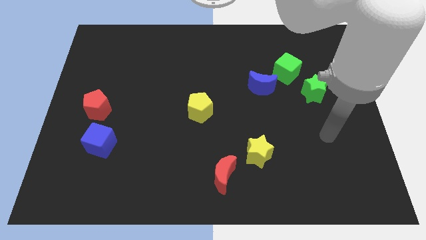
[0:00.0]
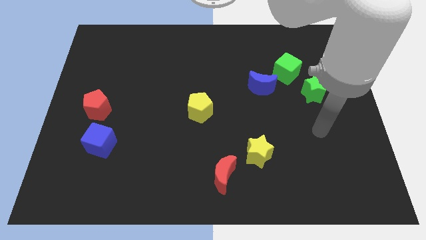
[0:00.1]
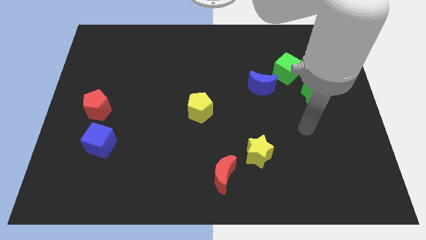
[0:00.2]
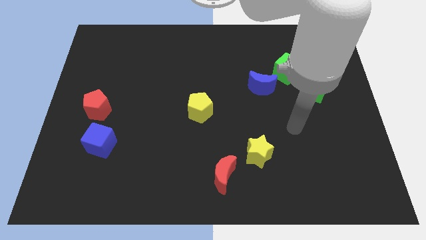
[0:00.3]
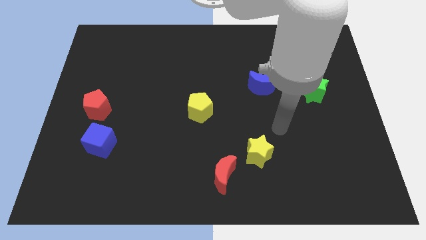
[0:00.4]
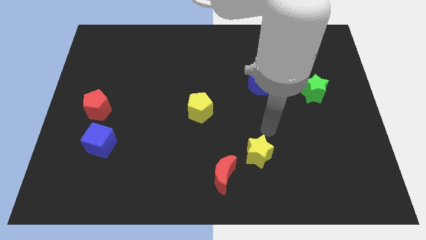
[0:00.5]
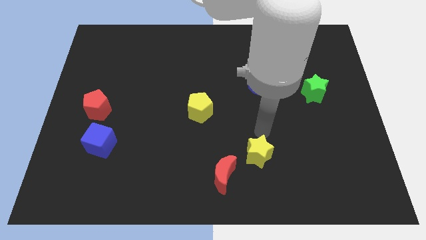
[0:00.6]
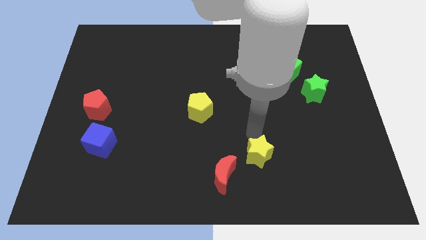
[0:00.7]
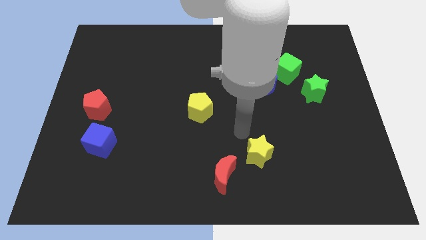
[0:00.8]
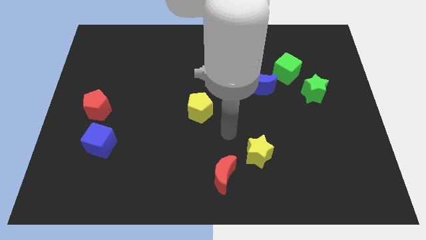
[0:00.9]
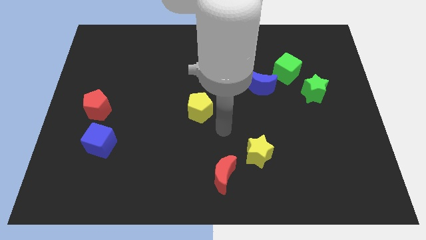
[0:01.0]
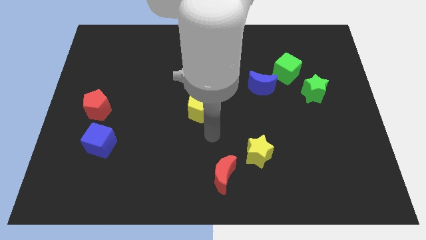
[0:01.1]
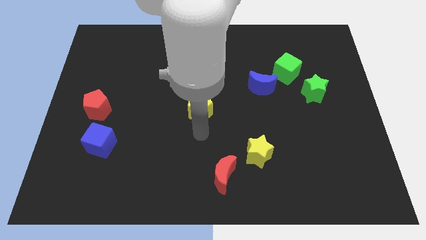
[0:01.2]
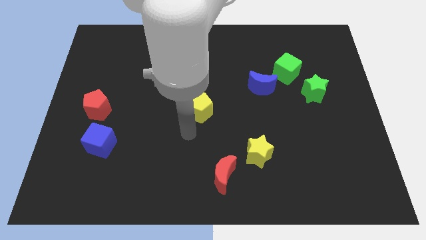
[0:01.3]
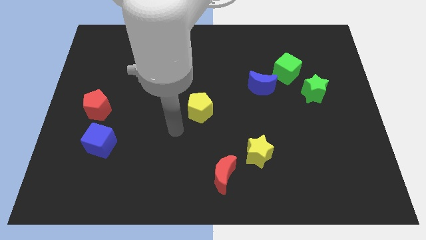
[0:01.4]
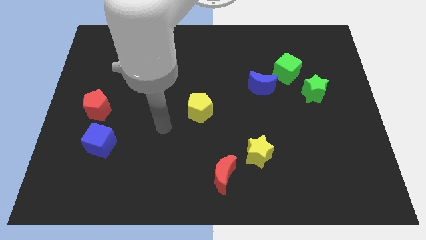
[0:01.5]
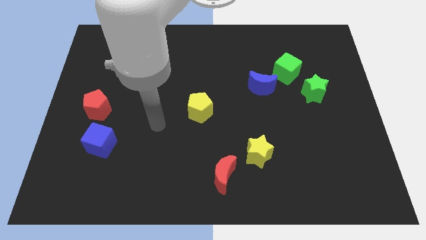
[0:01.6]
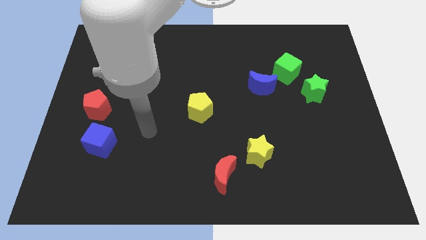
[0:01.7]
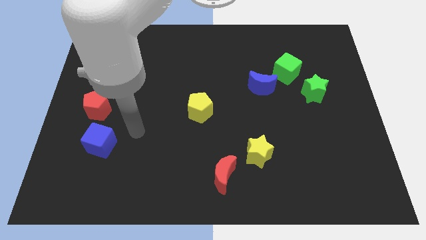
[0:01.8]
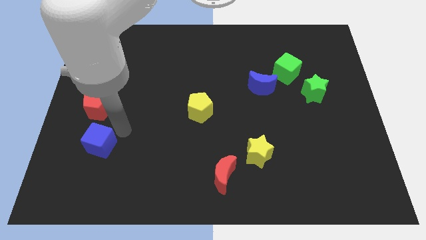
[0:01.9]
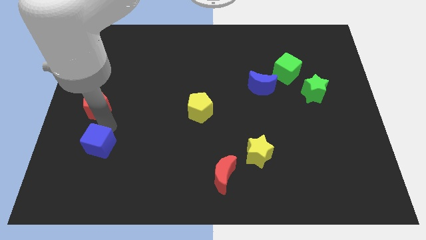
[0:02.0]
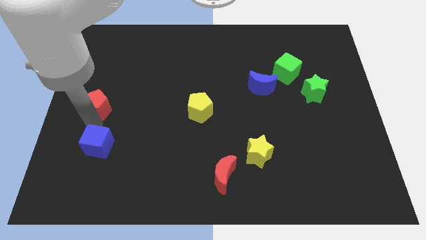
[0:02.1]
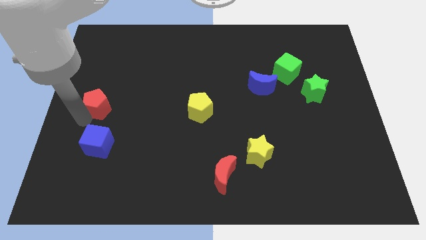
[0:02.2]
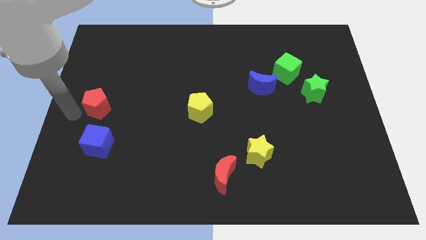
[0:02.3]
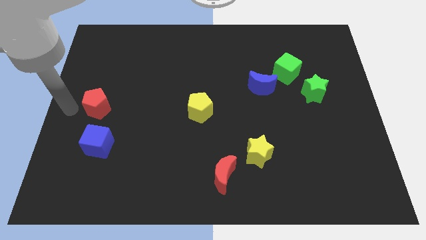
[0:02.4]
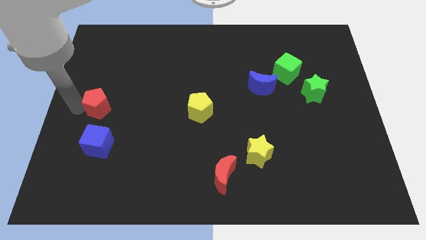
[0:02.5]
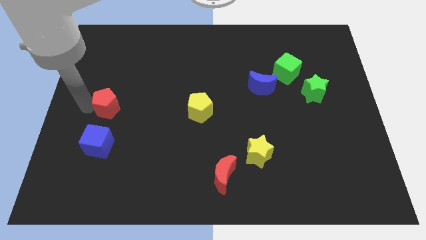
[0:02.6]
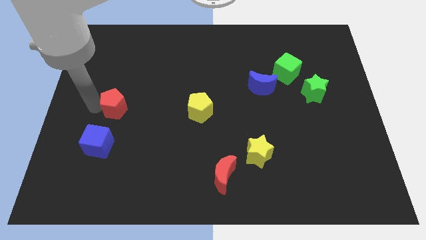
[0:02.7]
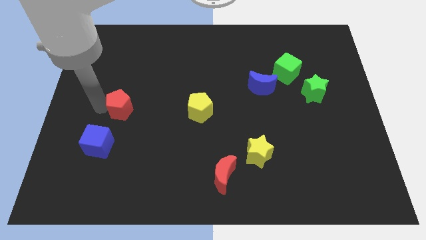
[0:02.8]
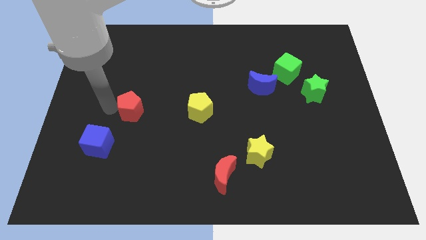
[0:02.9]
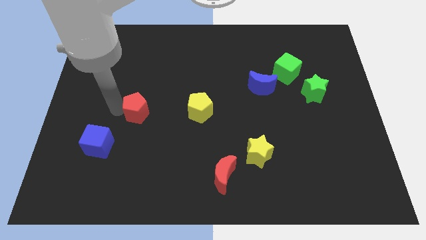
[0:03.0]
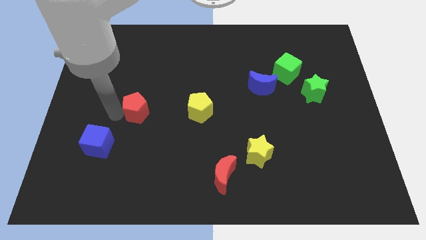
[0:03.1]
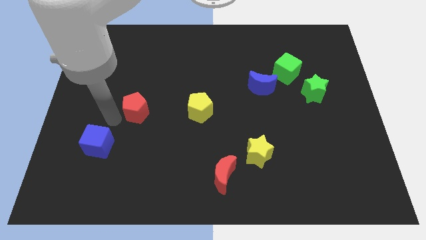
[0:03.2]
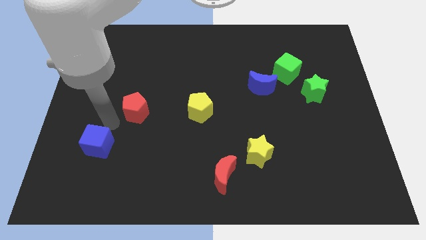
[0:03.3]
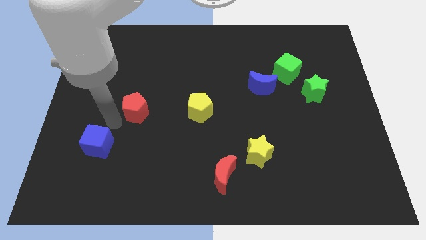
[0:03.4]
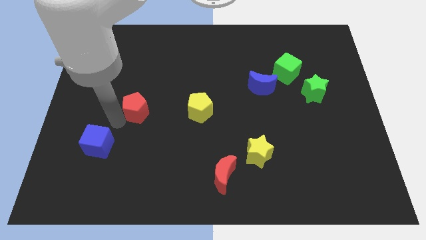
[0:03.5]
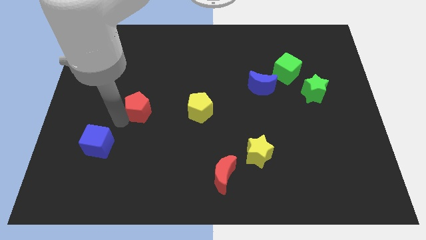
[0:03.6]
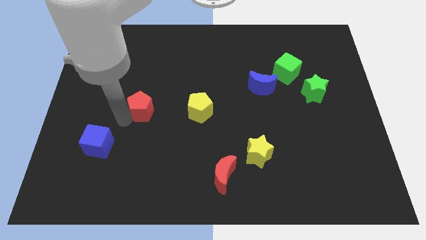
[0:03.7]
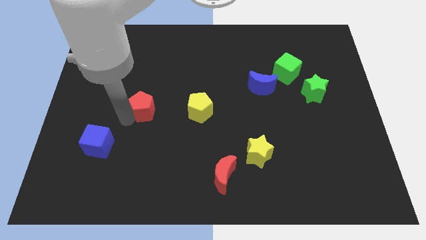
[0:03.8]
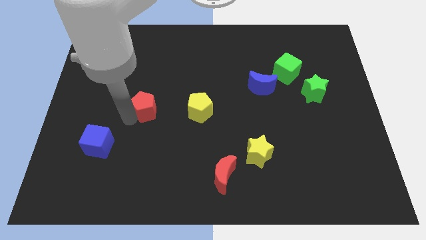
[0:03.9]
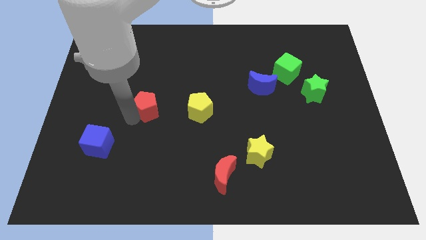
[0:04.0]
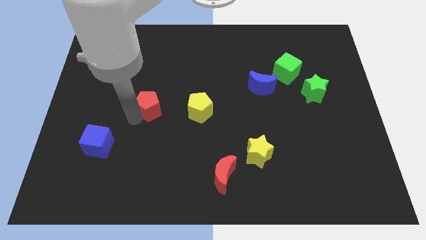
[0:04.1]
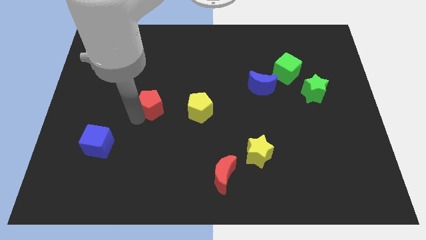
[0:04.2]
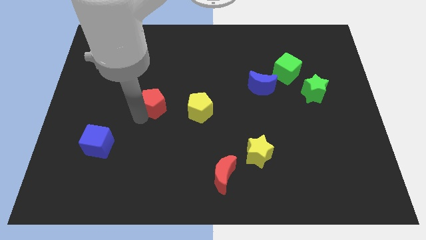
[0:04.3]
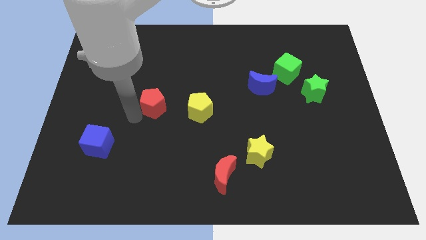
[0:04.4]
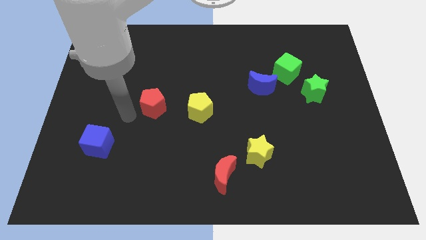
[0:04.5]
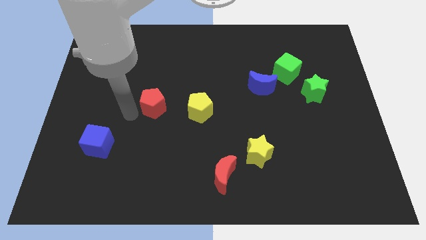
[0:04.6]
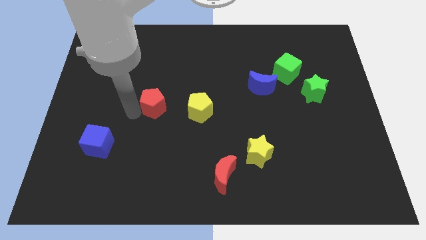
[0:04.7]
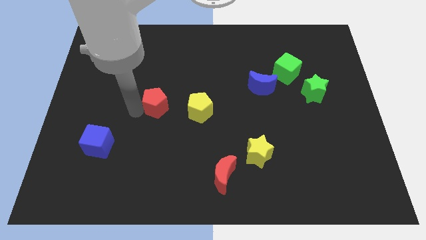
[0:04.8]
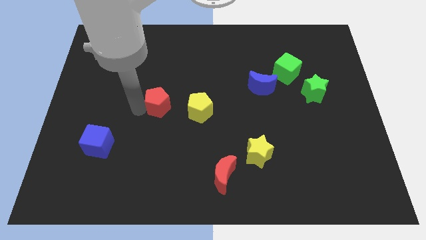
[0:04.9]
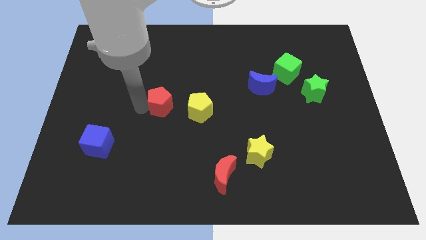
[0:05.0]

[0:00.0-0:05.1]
slide the red pentagon to the middle of the board

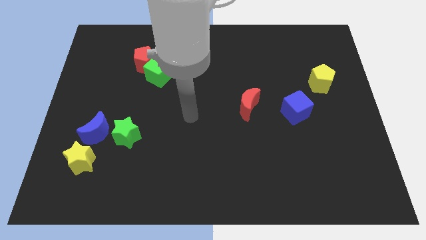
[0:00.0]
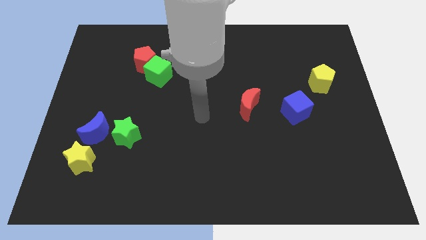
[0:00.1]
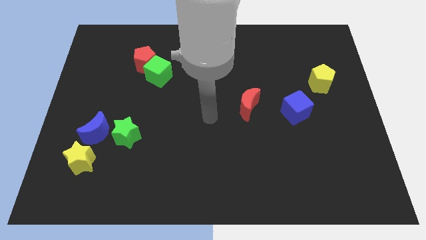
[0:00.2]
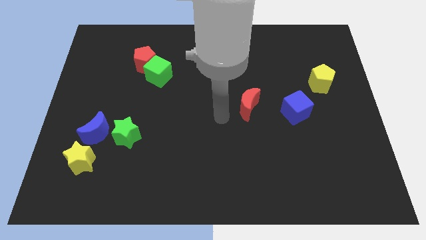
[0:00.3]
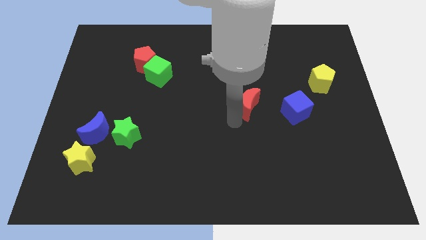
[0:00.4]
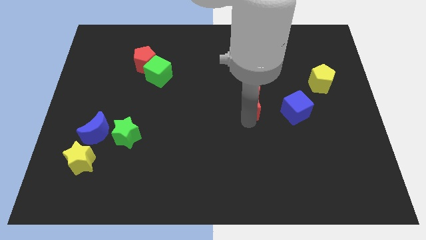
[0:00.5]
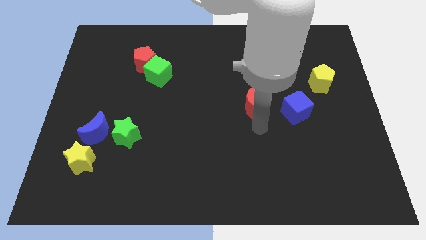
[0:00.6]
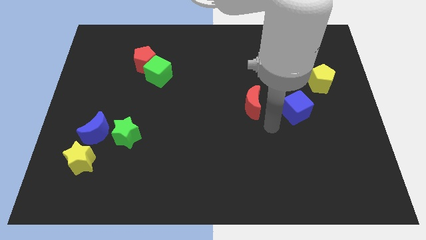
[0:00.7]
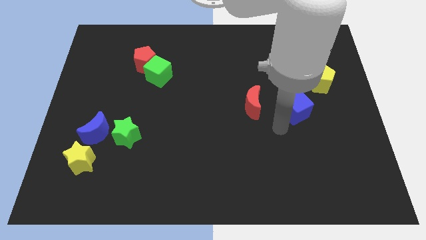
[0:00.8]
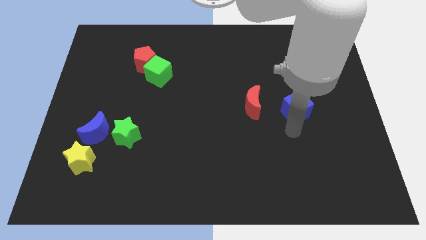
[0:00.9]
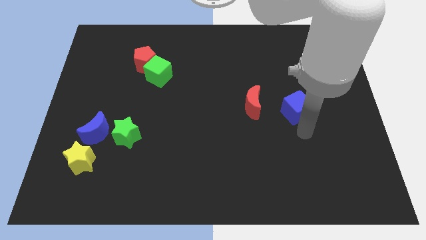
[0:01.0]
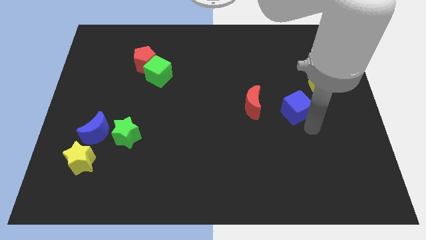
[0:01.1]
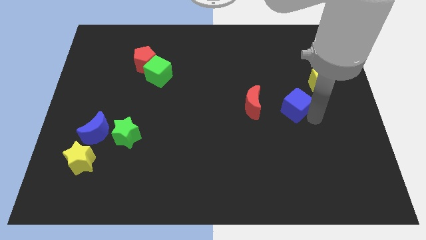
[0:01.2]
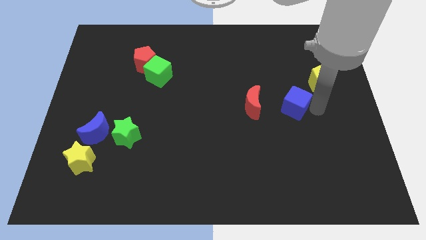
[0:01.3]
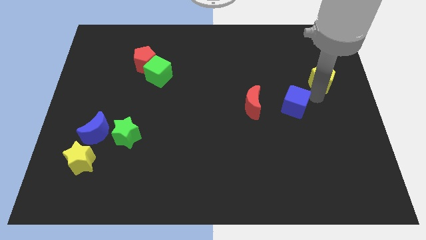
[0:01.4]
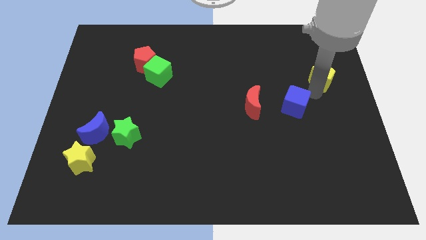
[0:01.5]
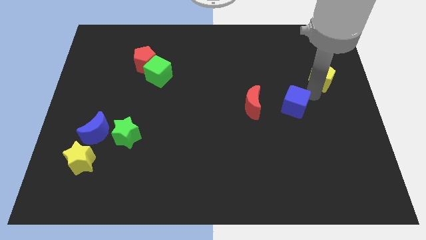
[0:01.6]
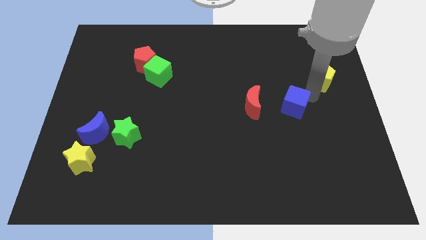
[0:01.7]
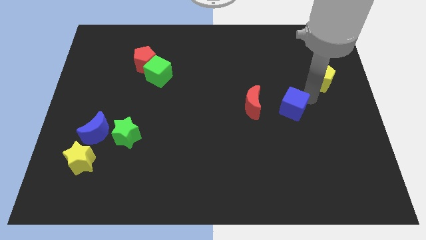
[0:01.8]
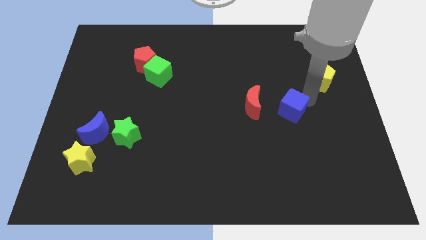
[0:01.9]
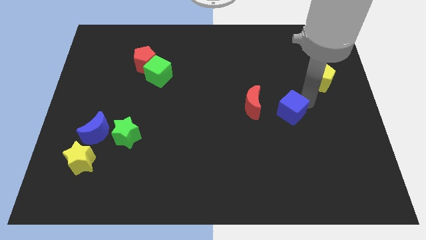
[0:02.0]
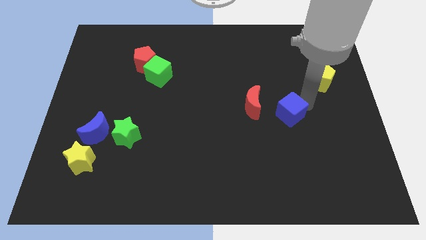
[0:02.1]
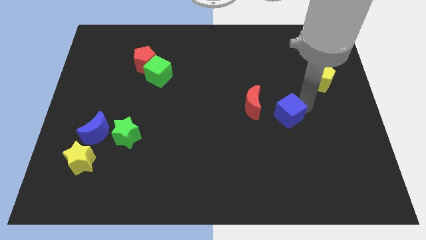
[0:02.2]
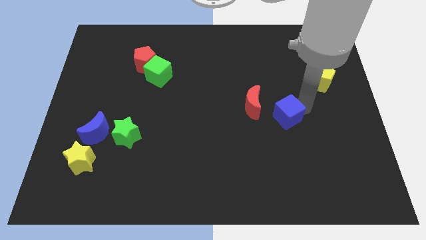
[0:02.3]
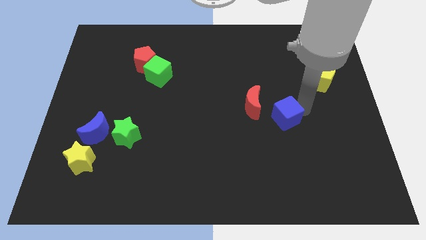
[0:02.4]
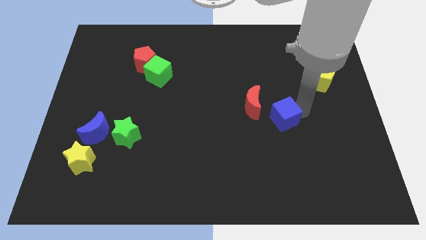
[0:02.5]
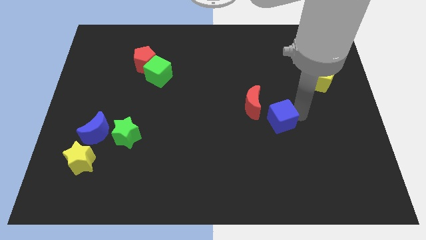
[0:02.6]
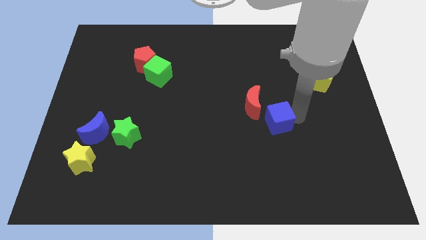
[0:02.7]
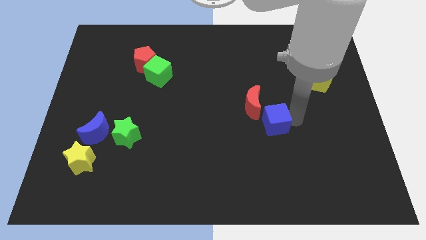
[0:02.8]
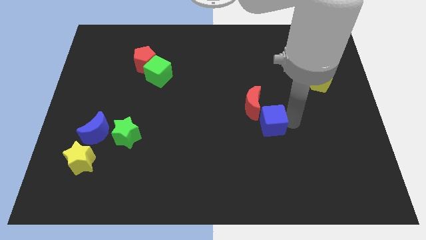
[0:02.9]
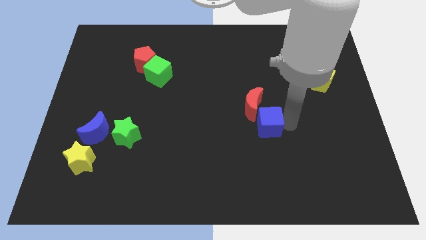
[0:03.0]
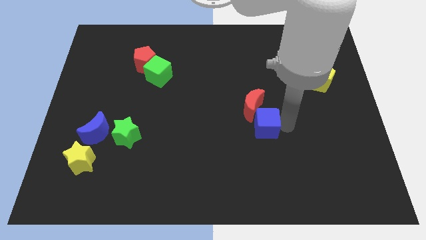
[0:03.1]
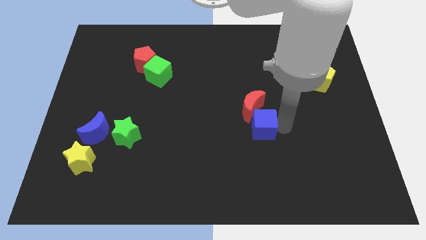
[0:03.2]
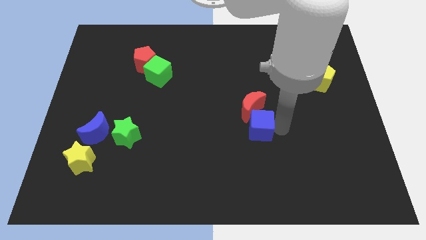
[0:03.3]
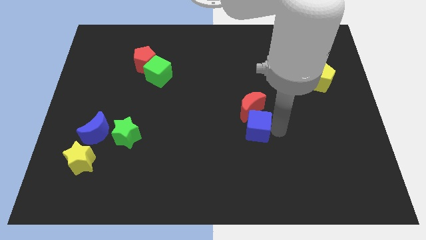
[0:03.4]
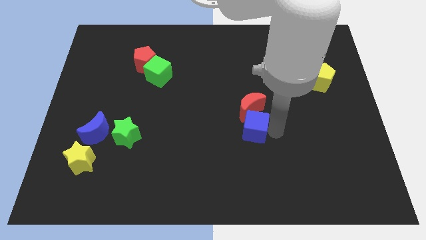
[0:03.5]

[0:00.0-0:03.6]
push the blue cube to the center of the board
